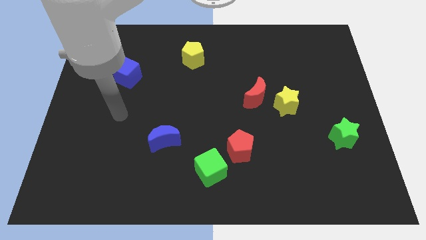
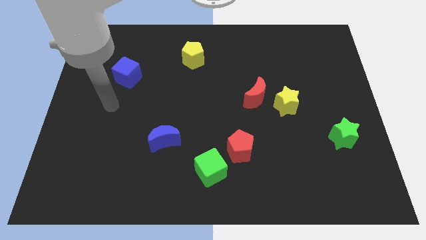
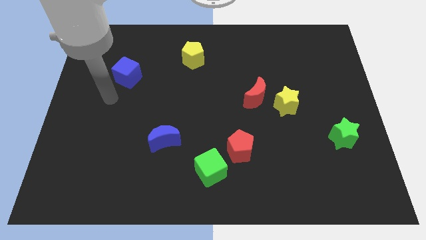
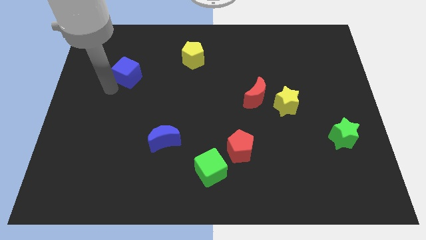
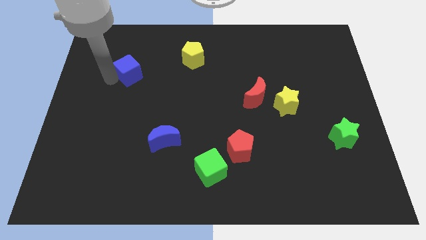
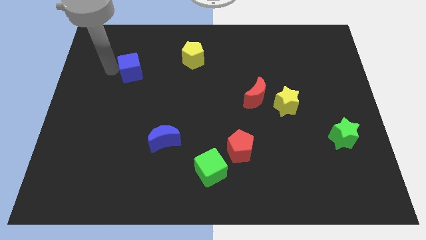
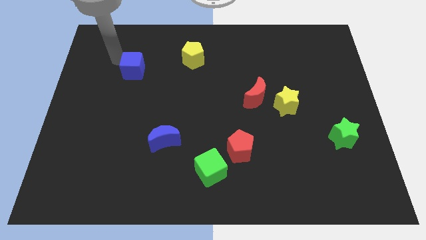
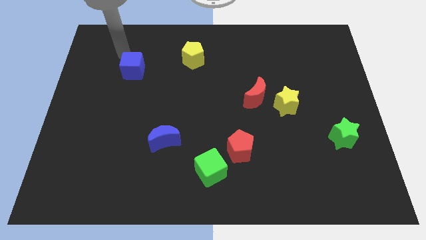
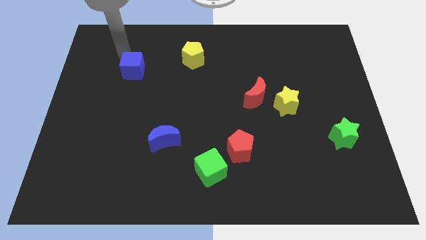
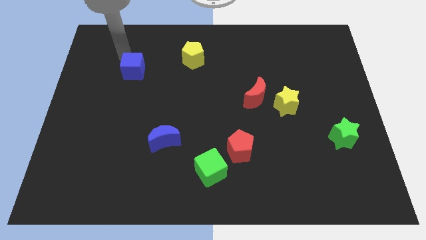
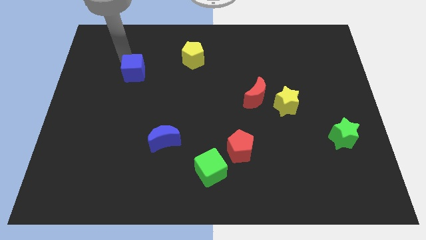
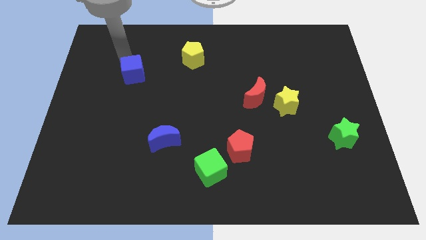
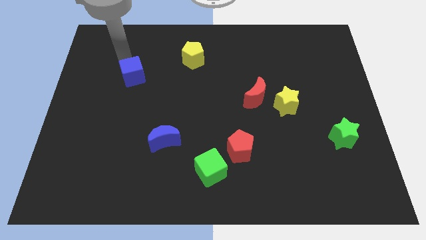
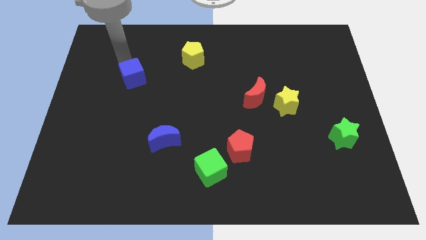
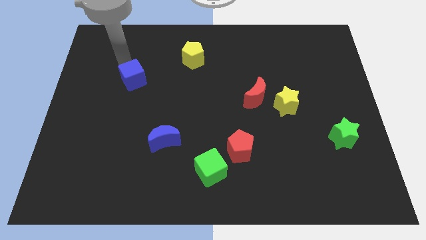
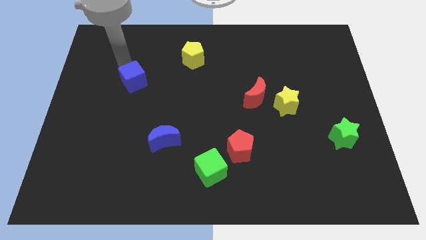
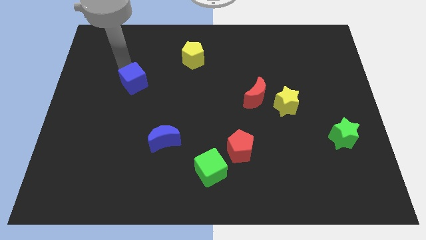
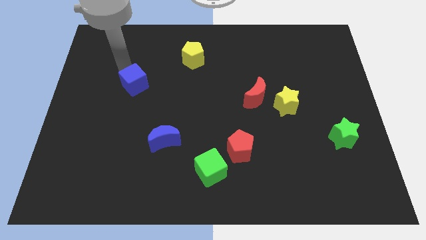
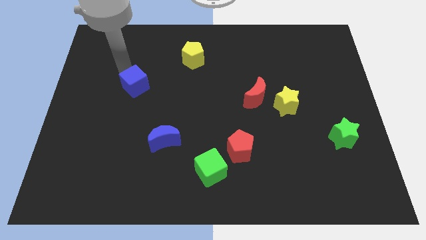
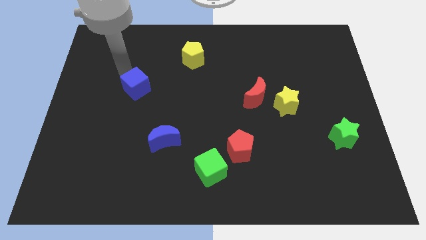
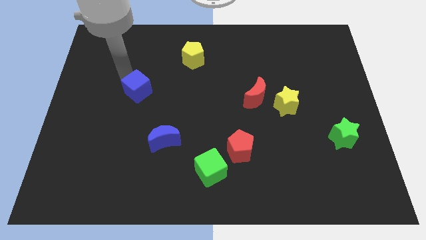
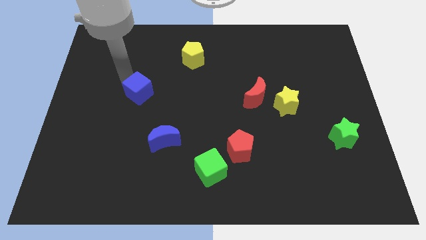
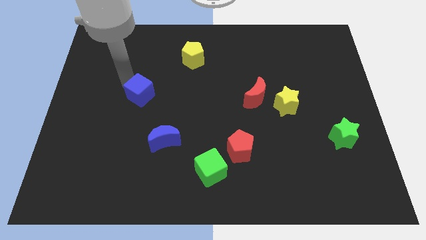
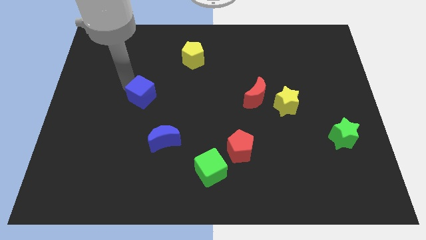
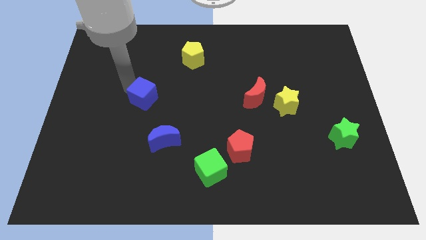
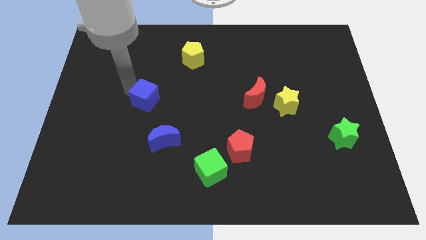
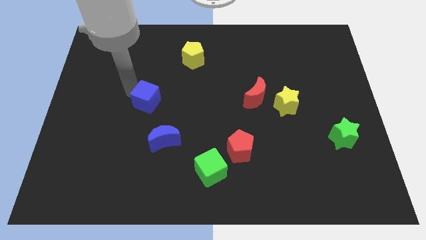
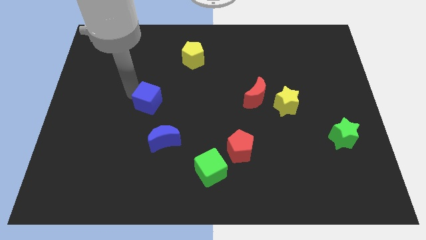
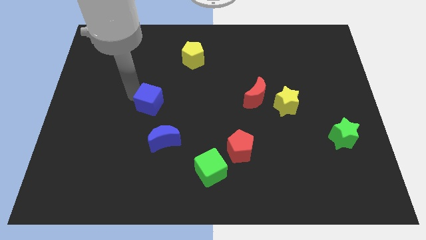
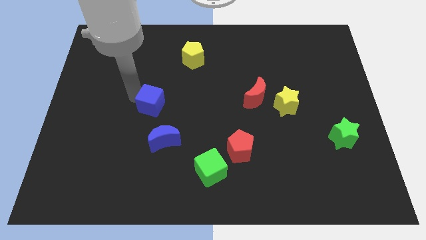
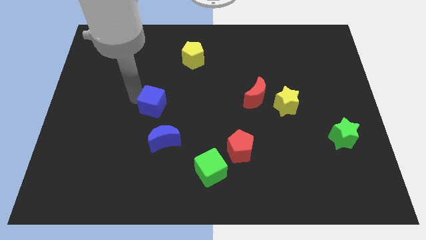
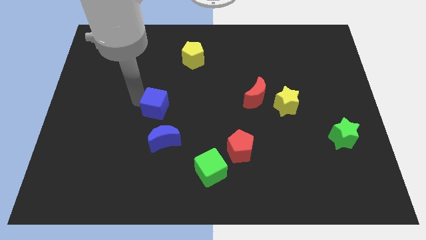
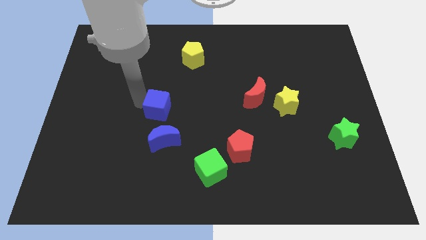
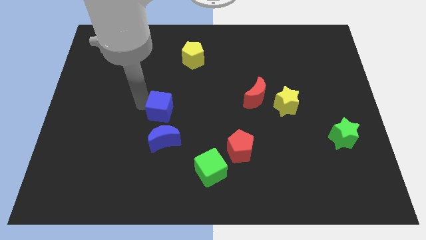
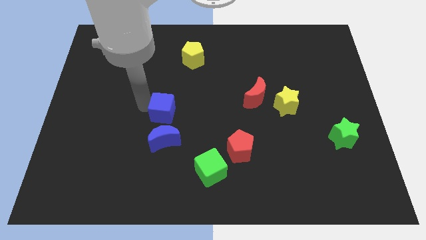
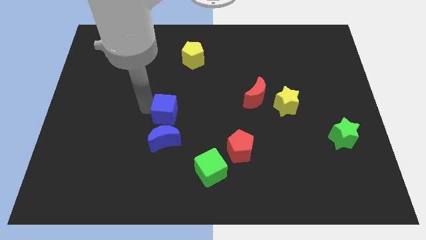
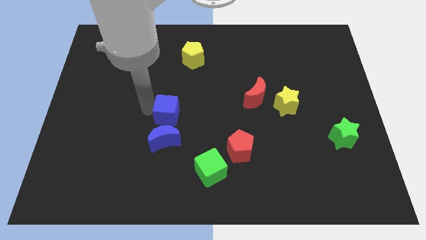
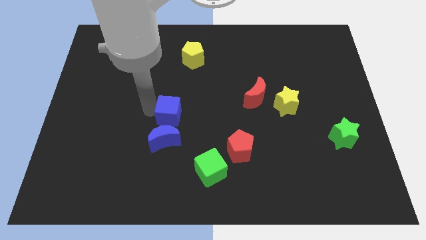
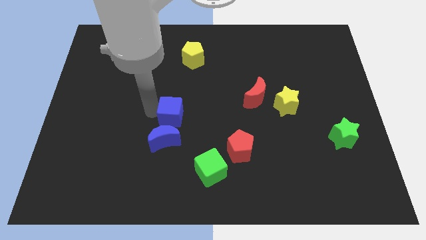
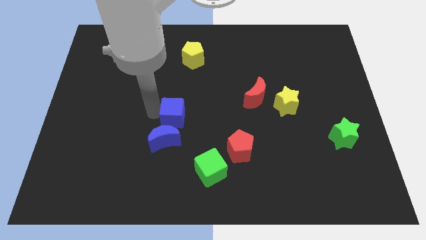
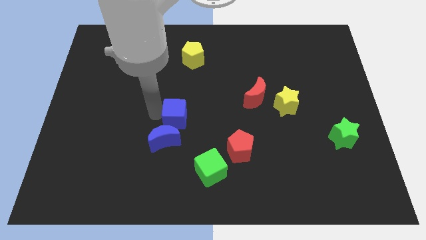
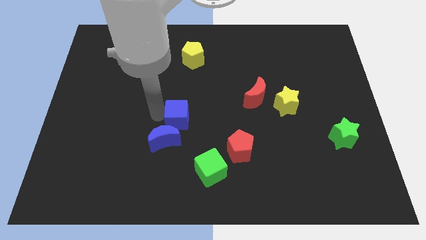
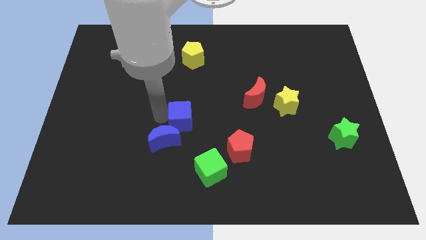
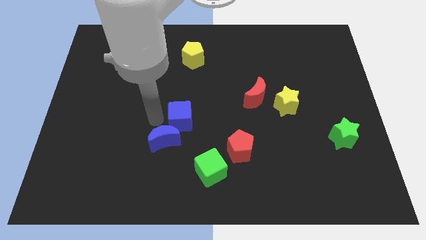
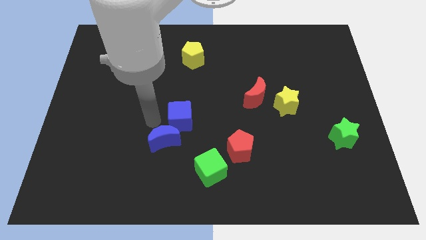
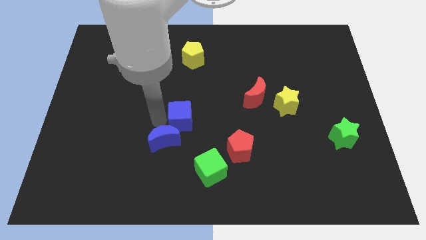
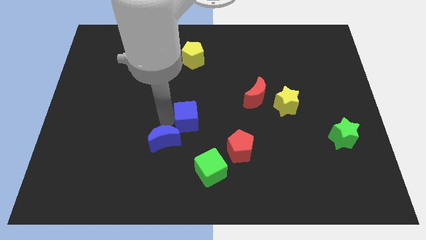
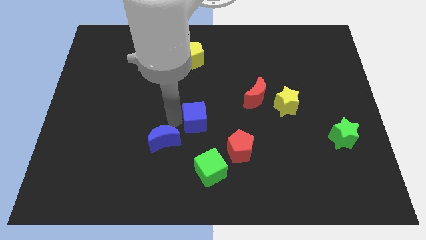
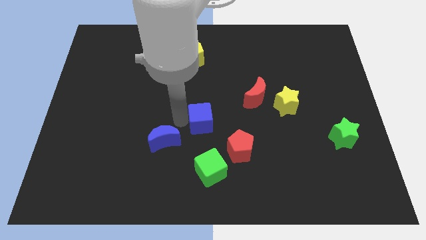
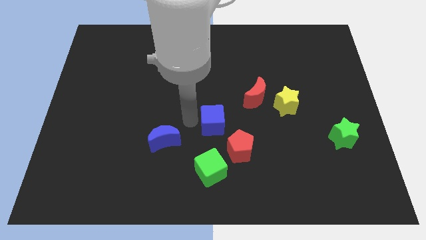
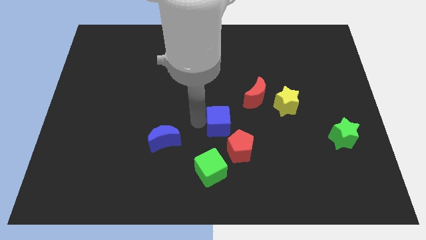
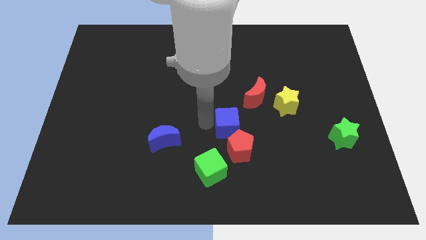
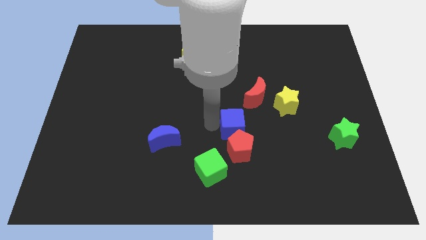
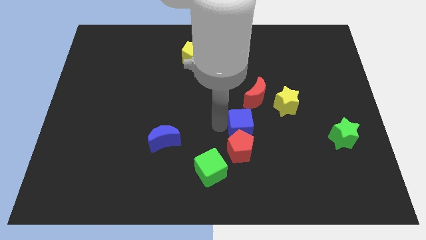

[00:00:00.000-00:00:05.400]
push the blue cube diagonally up and to the right of the red pentagon

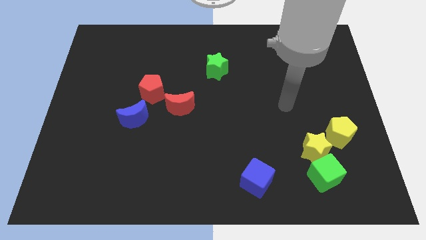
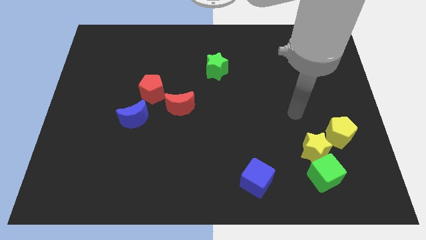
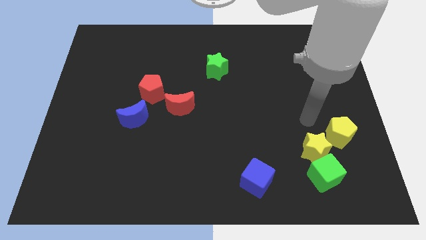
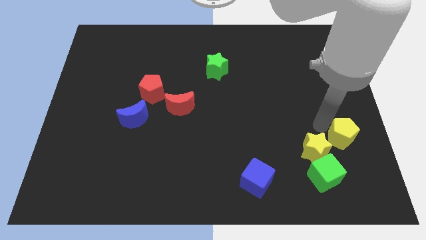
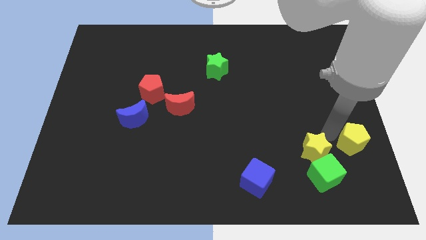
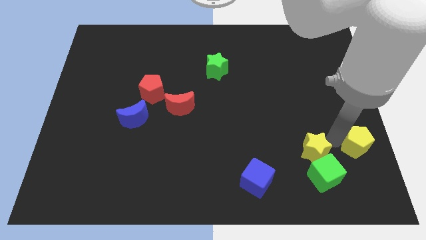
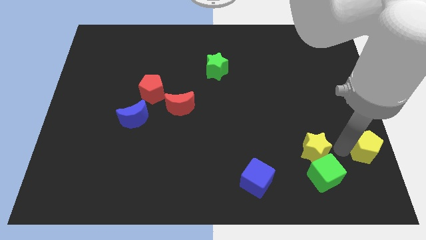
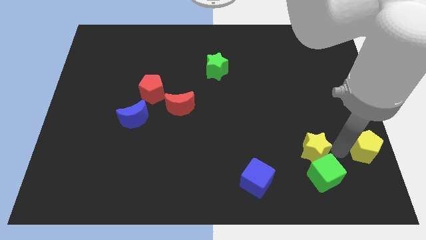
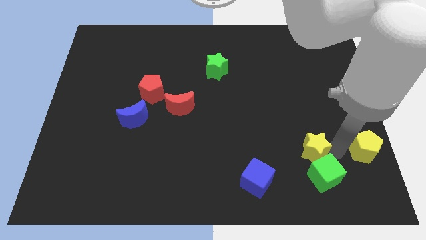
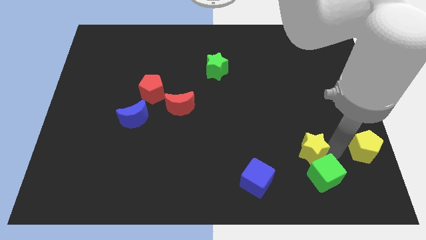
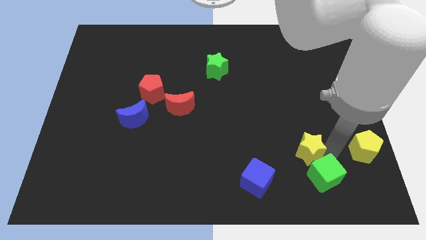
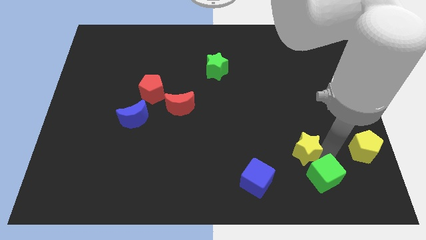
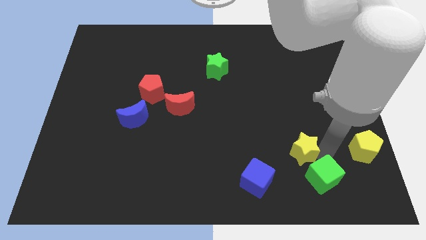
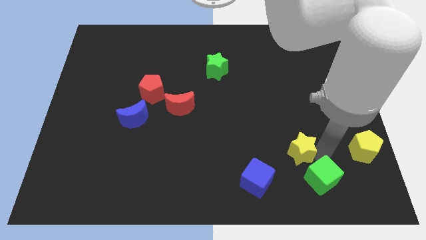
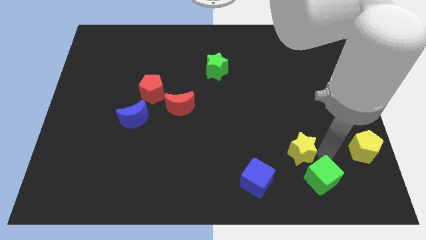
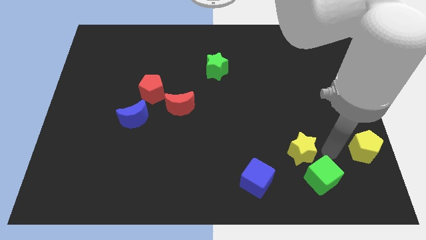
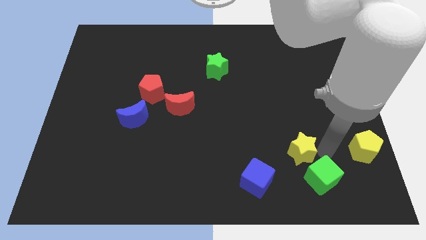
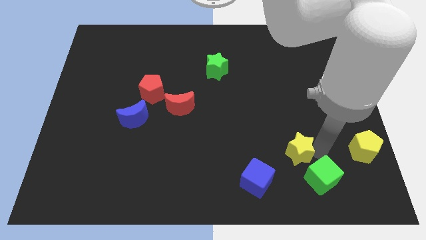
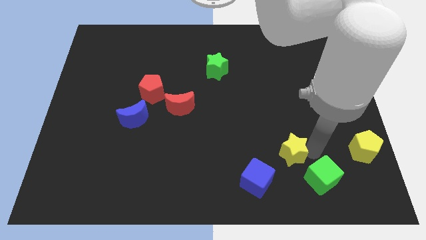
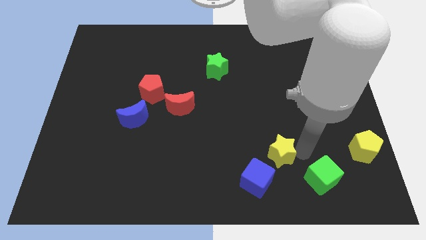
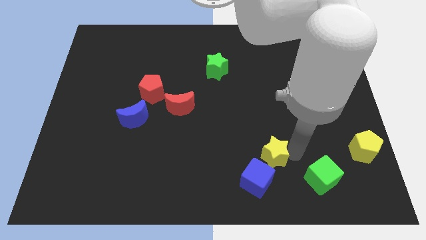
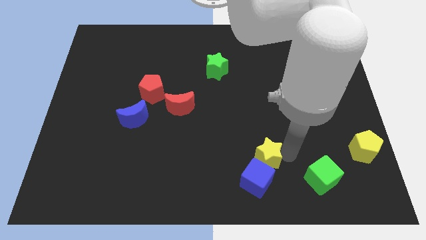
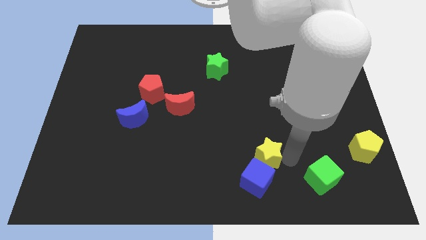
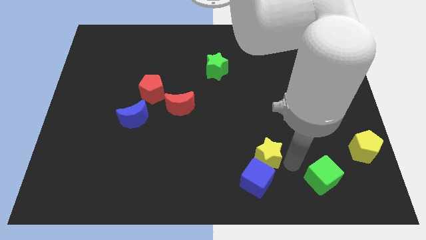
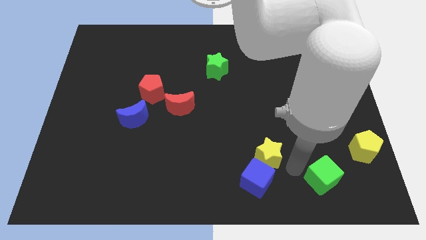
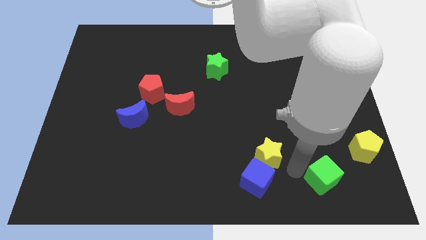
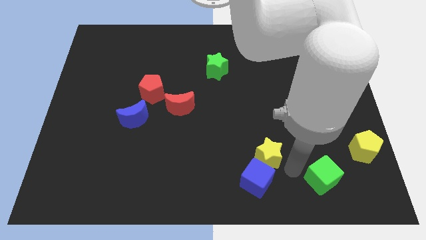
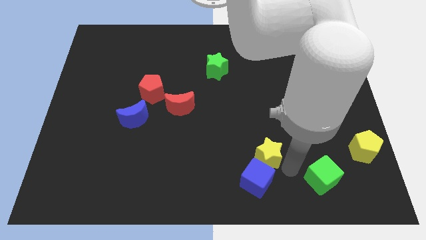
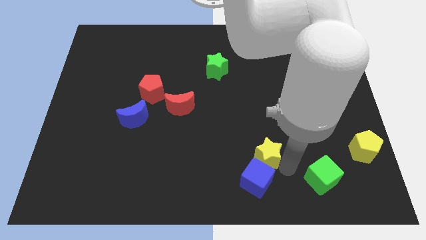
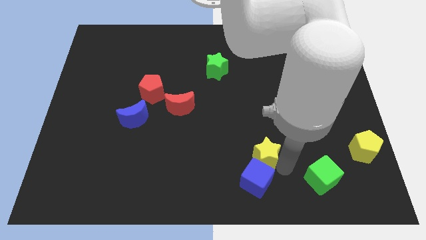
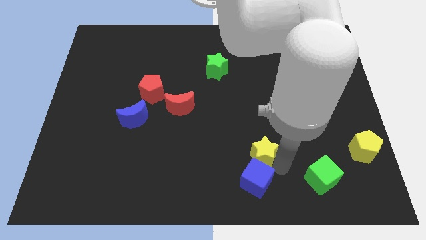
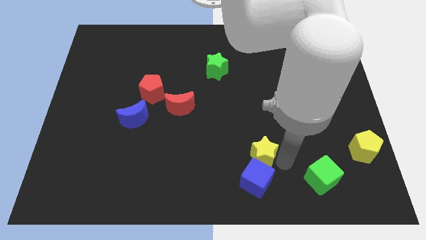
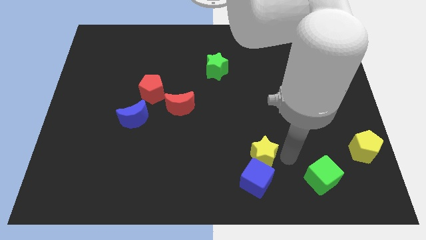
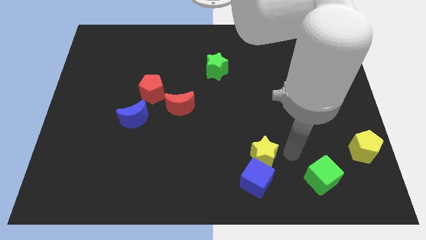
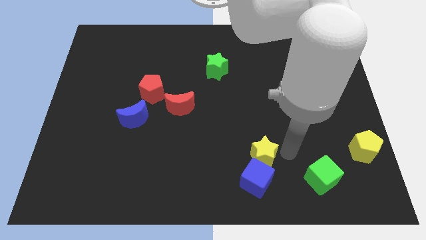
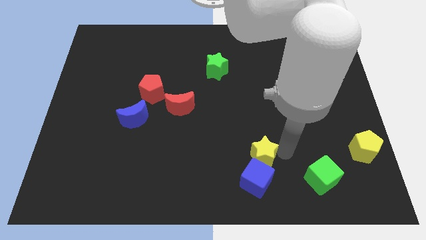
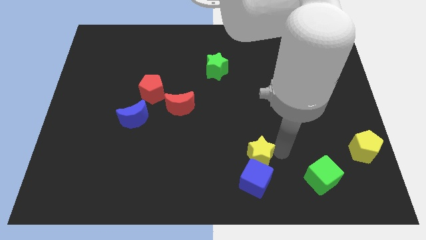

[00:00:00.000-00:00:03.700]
move the yellow star to the top left of the blue cube
